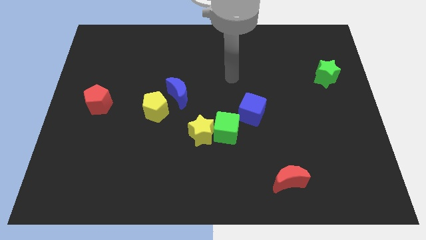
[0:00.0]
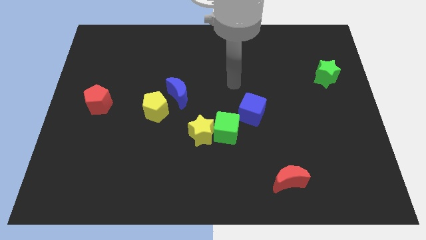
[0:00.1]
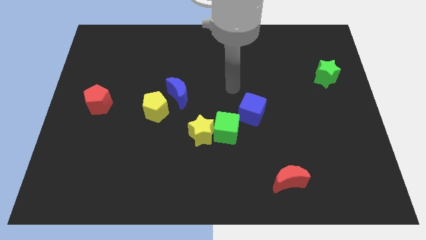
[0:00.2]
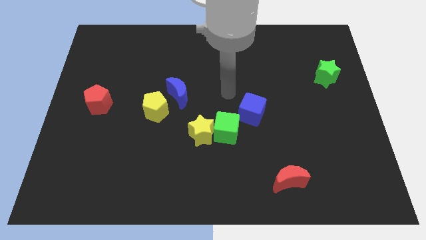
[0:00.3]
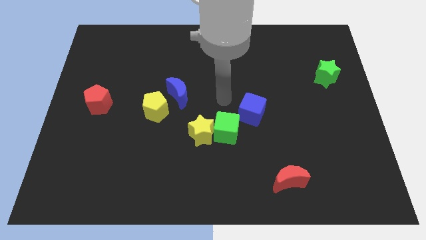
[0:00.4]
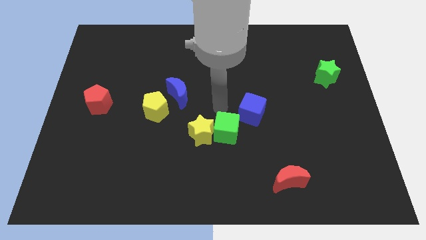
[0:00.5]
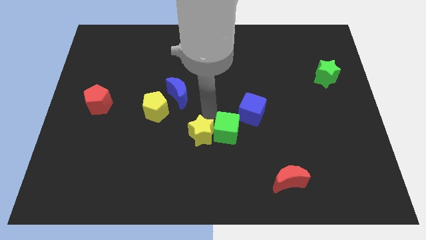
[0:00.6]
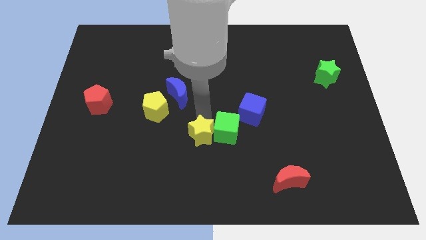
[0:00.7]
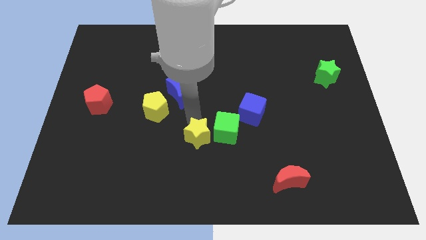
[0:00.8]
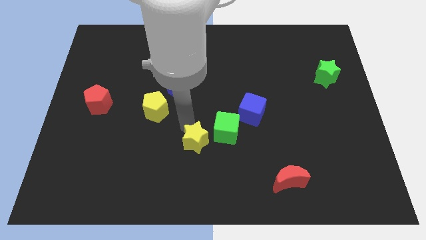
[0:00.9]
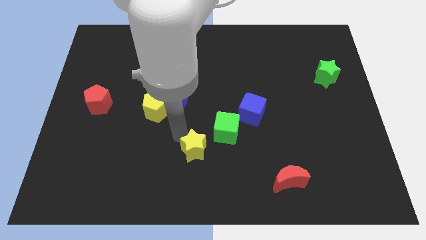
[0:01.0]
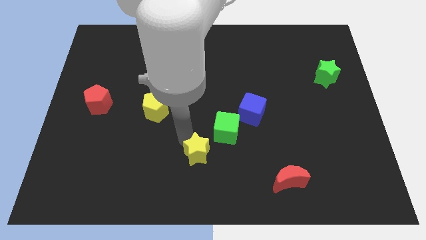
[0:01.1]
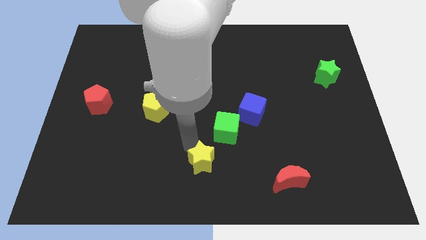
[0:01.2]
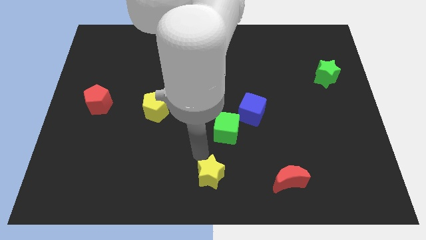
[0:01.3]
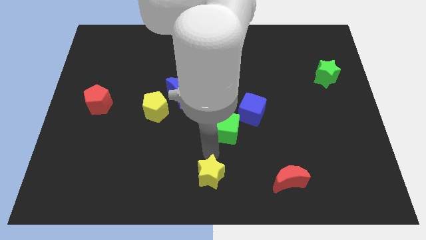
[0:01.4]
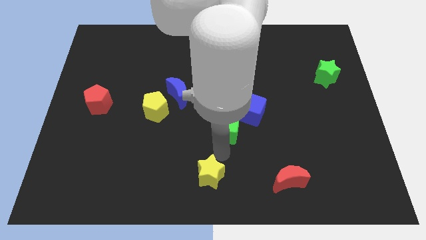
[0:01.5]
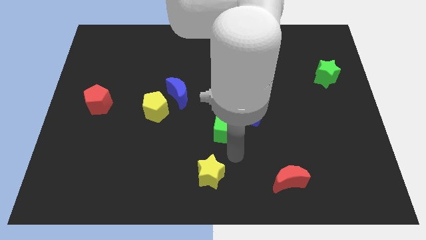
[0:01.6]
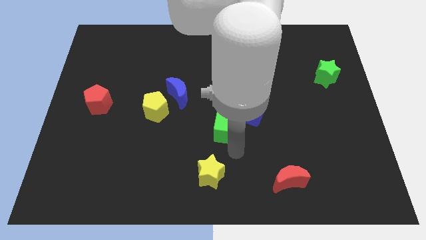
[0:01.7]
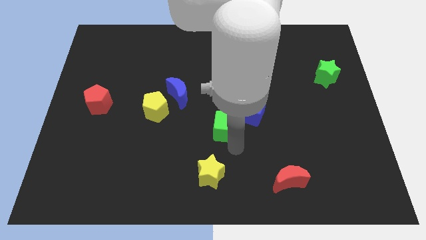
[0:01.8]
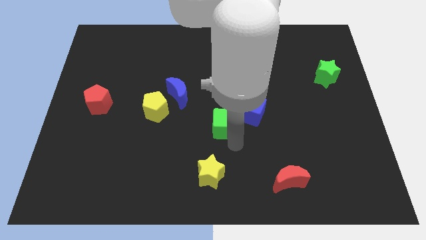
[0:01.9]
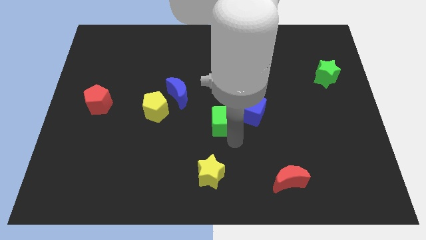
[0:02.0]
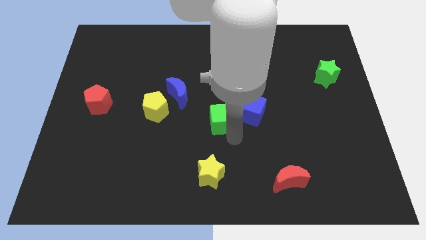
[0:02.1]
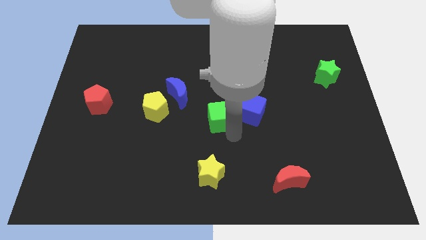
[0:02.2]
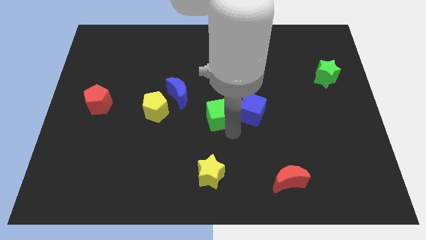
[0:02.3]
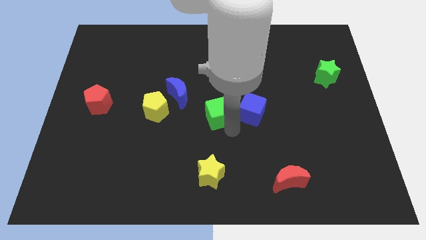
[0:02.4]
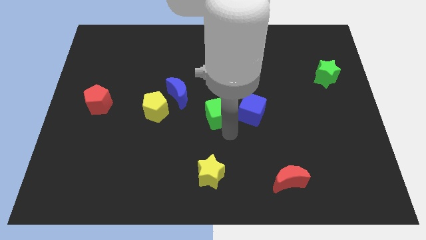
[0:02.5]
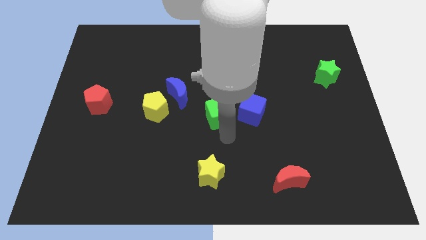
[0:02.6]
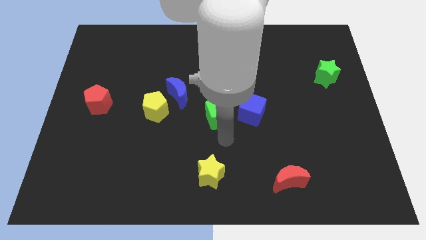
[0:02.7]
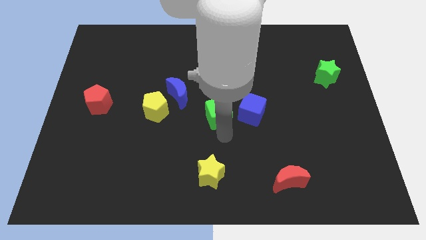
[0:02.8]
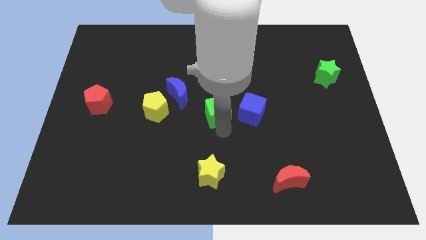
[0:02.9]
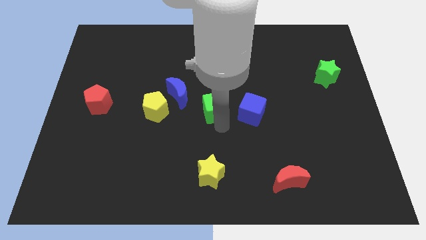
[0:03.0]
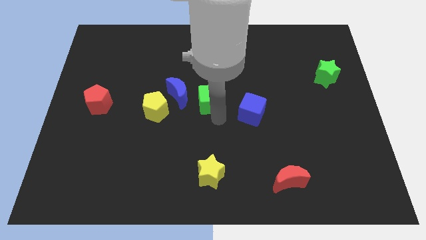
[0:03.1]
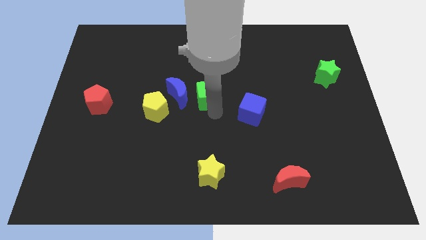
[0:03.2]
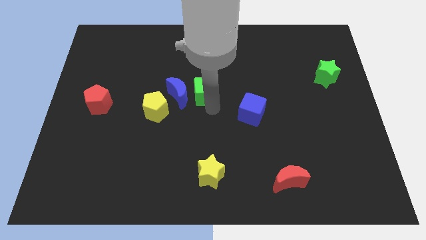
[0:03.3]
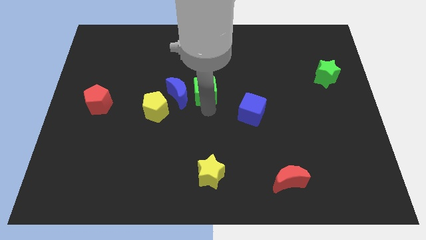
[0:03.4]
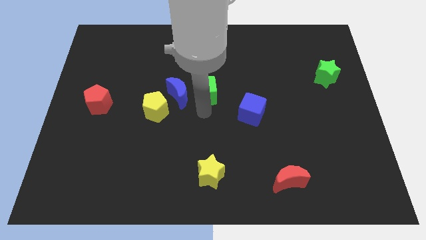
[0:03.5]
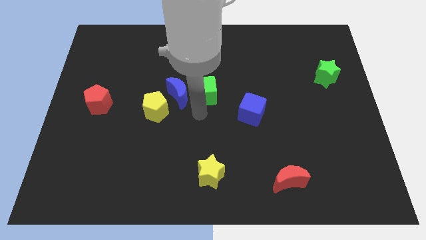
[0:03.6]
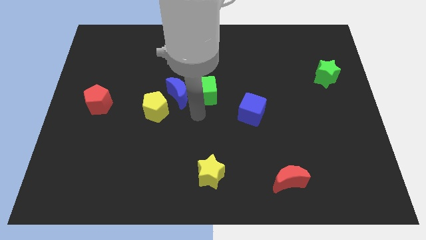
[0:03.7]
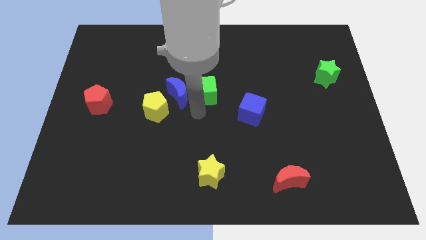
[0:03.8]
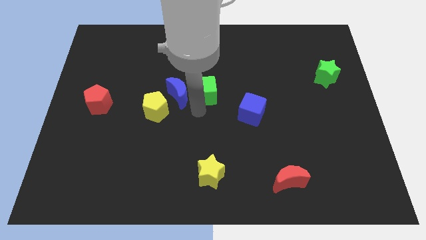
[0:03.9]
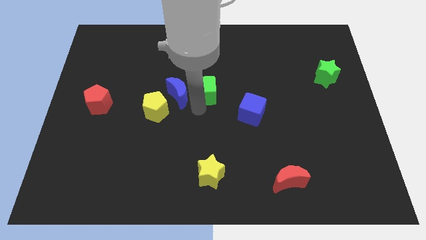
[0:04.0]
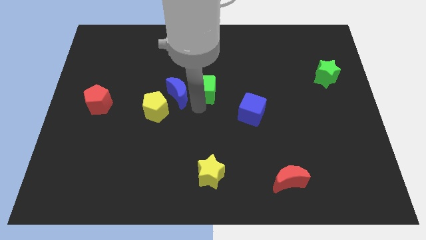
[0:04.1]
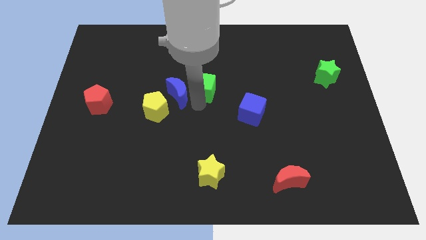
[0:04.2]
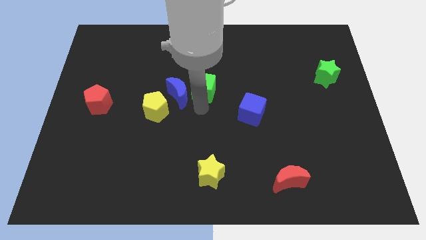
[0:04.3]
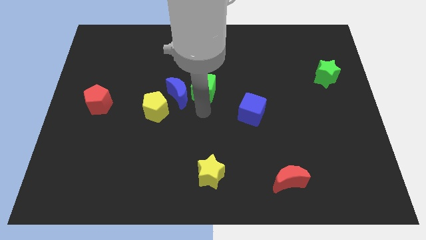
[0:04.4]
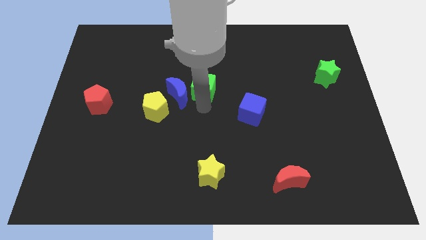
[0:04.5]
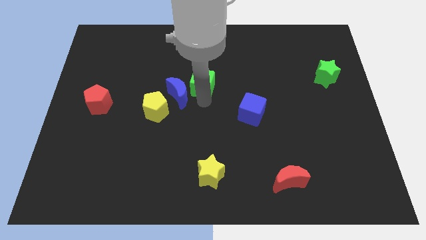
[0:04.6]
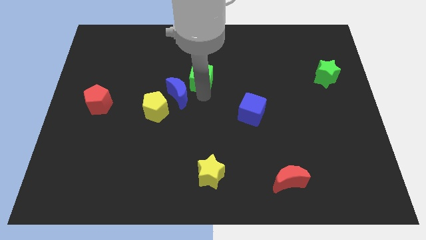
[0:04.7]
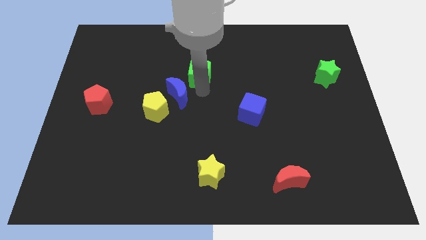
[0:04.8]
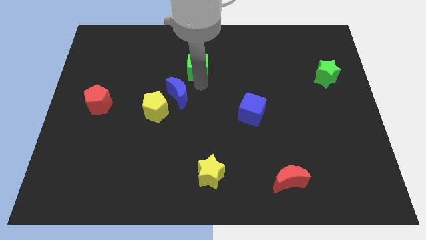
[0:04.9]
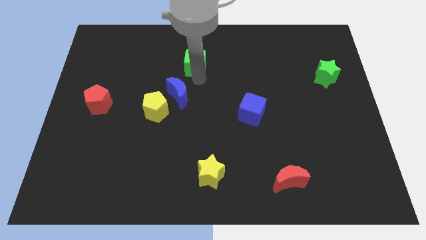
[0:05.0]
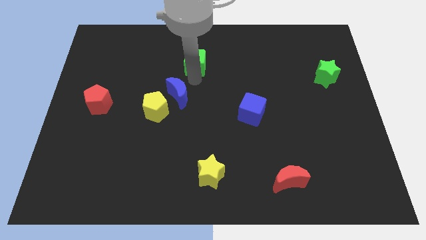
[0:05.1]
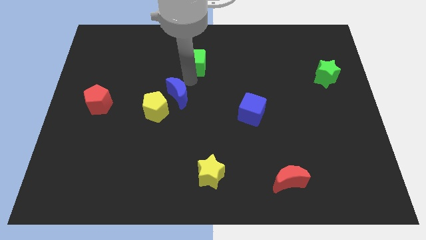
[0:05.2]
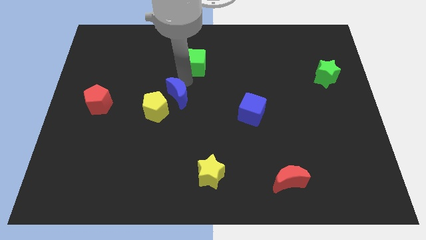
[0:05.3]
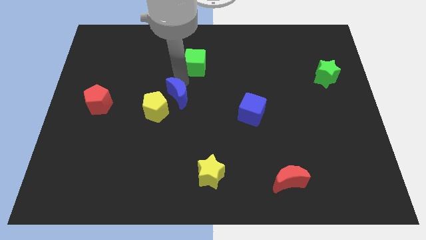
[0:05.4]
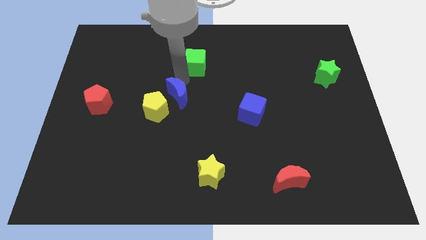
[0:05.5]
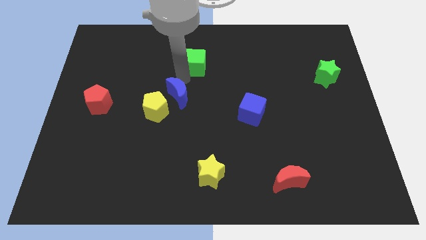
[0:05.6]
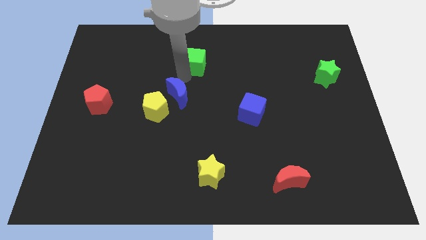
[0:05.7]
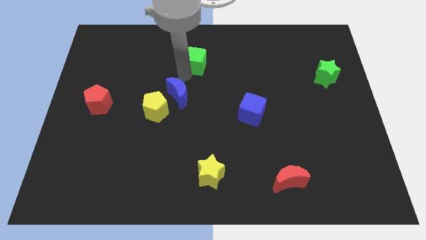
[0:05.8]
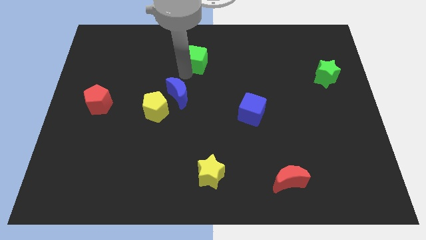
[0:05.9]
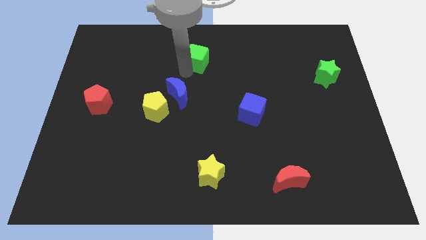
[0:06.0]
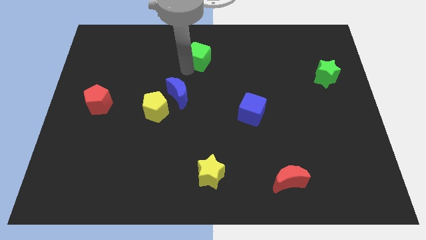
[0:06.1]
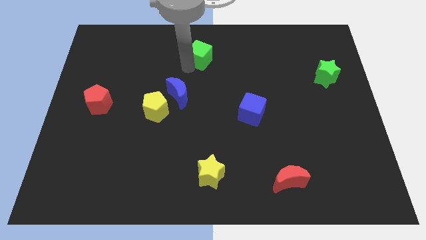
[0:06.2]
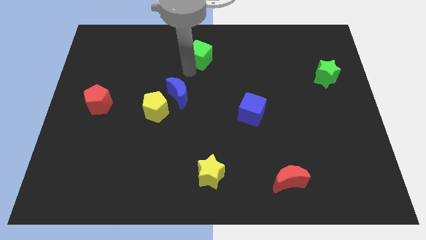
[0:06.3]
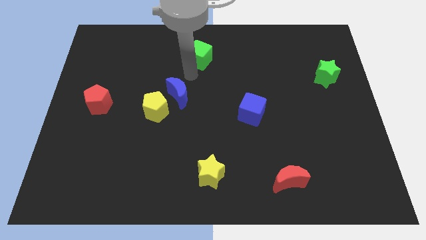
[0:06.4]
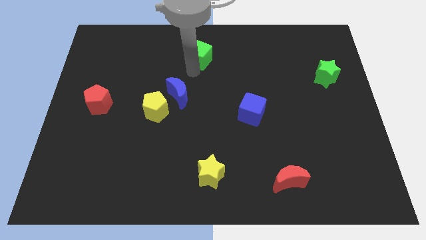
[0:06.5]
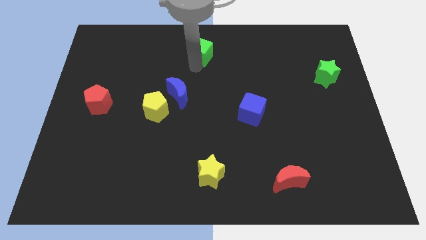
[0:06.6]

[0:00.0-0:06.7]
put the green cube to the towards your base

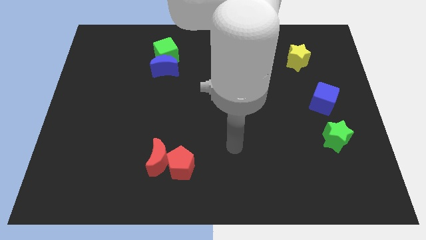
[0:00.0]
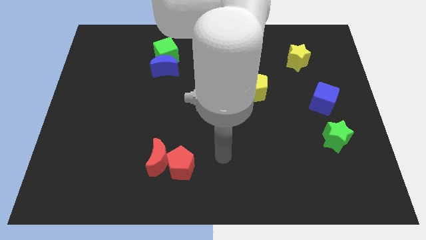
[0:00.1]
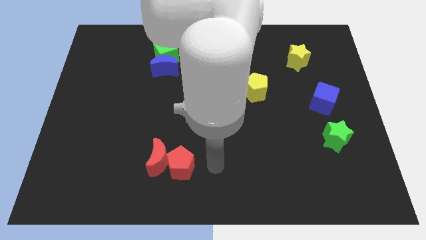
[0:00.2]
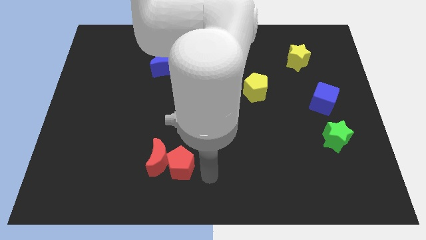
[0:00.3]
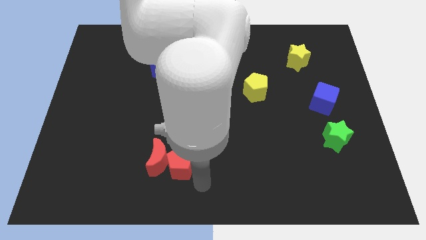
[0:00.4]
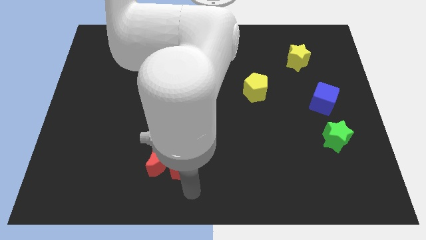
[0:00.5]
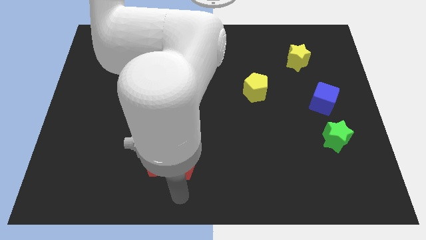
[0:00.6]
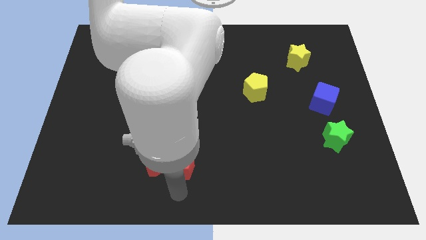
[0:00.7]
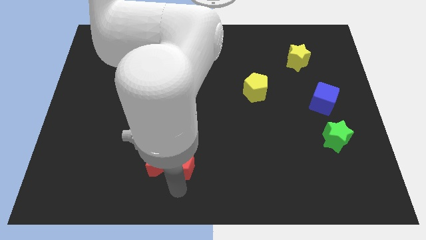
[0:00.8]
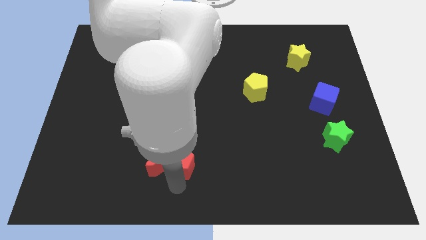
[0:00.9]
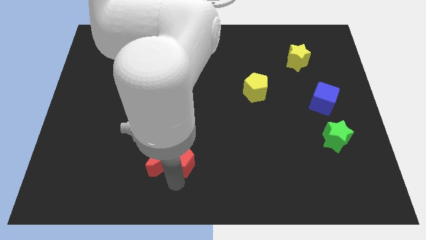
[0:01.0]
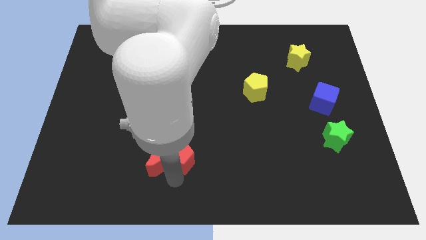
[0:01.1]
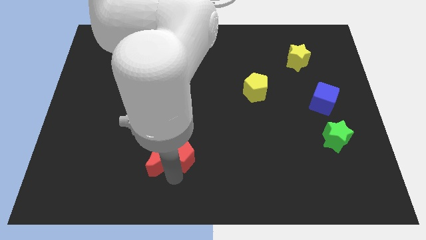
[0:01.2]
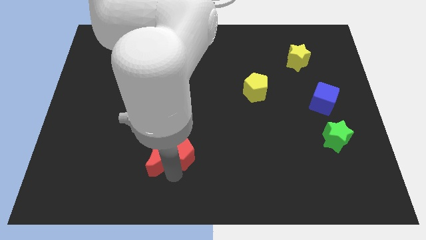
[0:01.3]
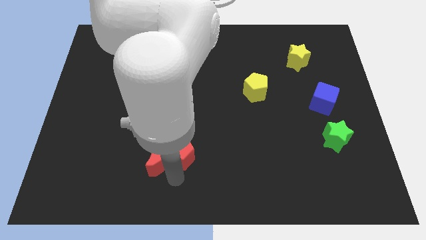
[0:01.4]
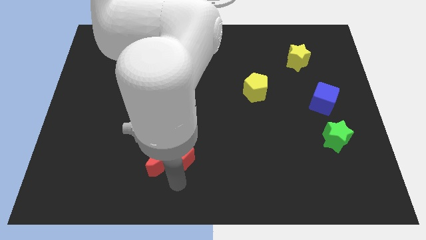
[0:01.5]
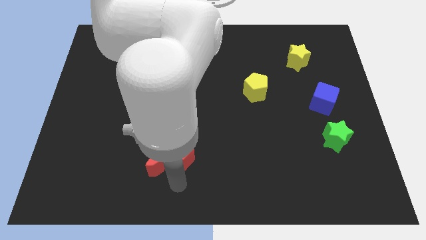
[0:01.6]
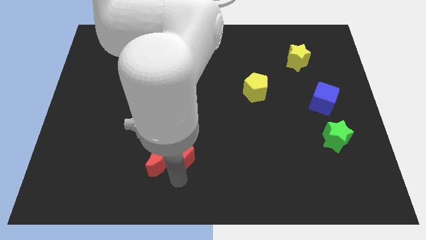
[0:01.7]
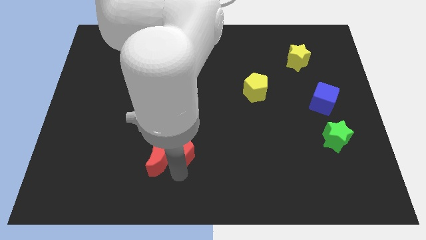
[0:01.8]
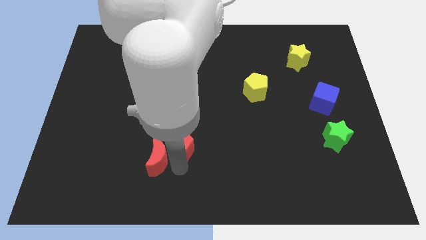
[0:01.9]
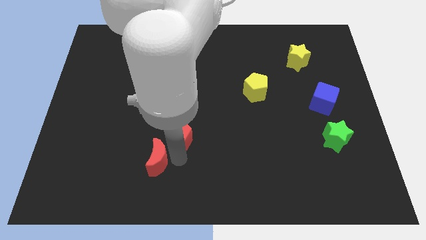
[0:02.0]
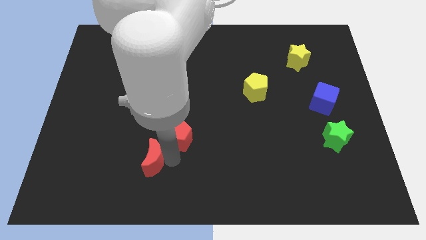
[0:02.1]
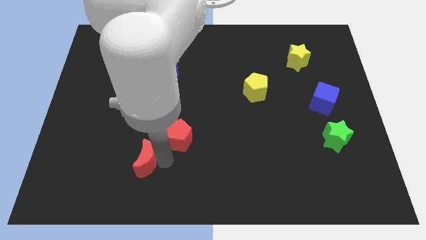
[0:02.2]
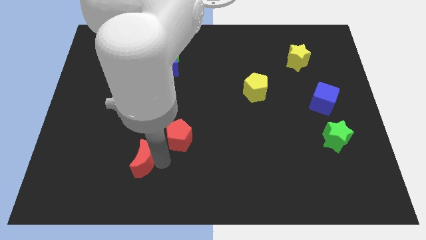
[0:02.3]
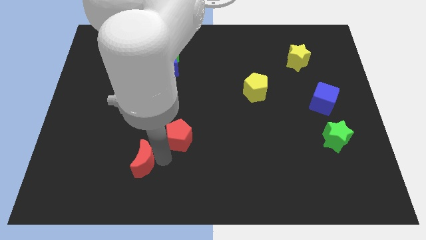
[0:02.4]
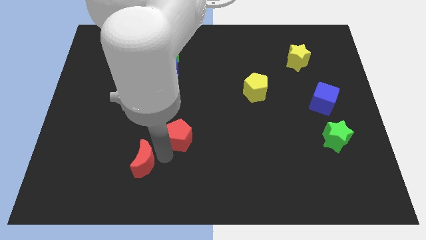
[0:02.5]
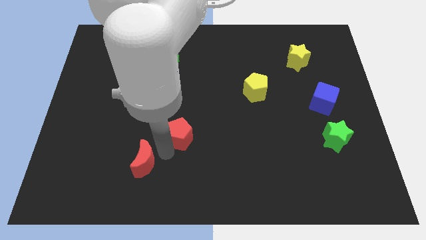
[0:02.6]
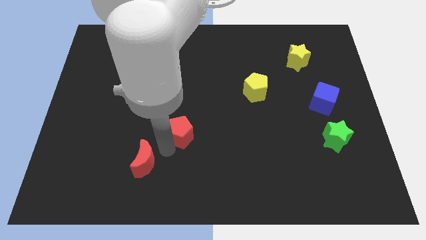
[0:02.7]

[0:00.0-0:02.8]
slide the red pentagon to the center of the board
